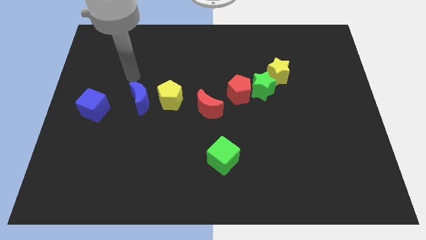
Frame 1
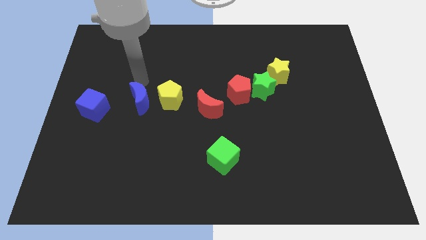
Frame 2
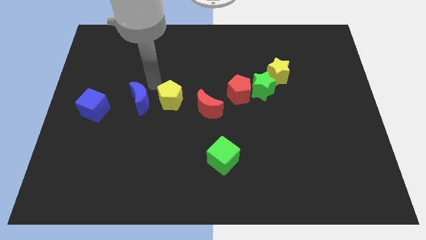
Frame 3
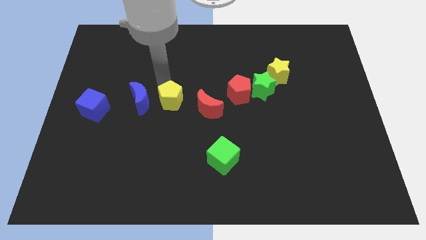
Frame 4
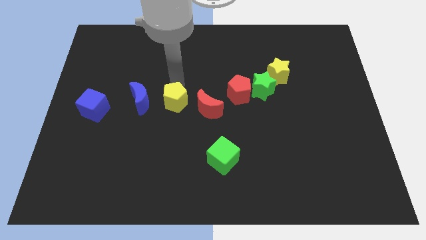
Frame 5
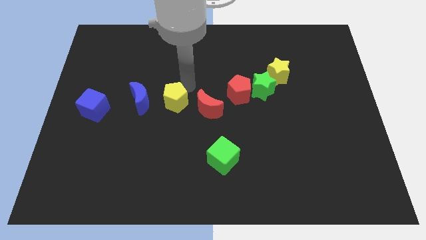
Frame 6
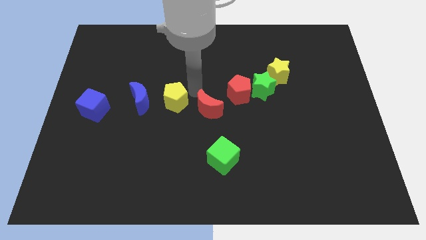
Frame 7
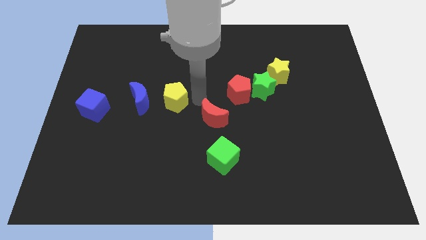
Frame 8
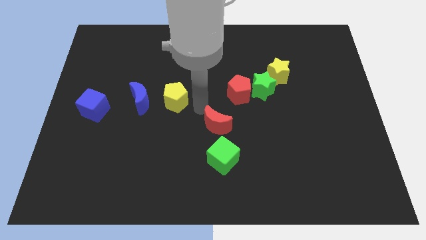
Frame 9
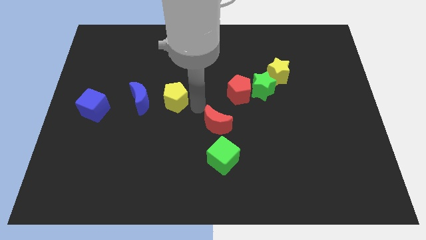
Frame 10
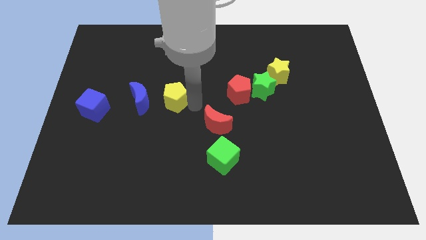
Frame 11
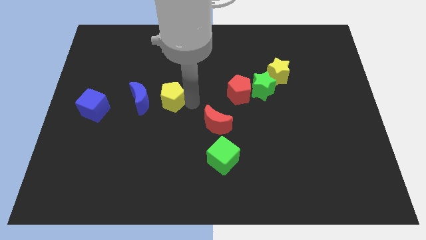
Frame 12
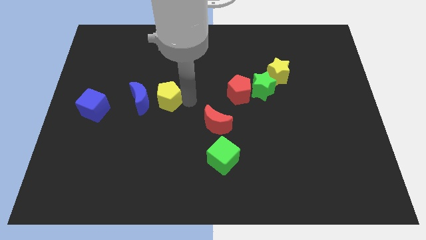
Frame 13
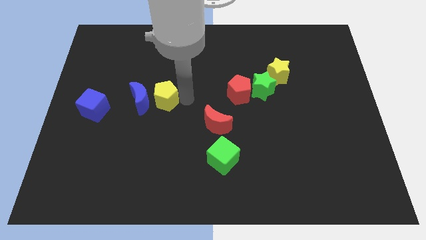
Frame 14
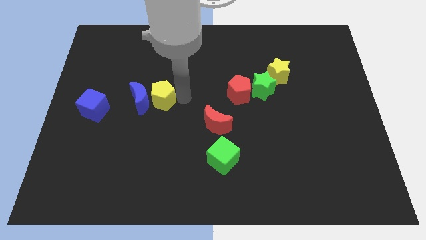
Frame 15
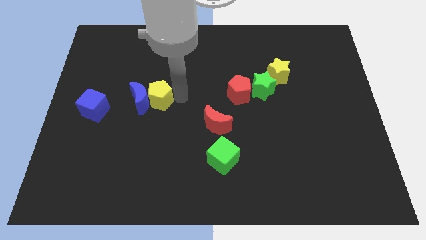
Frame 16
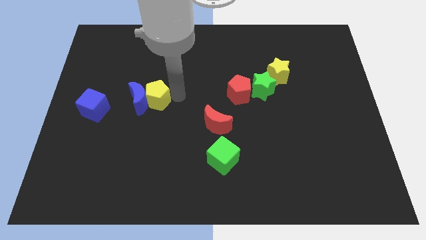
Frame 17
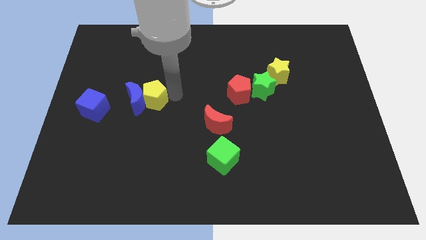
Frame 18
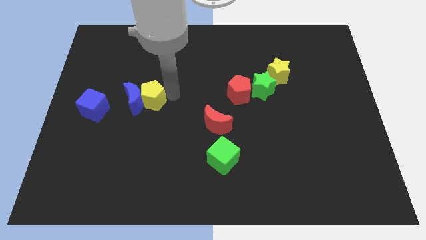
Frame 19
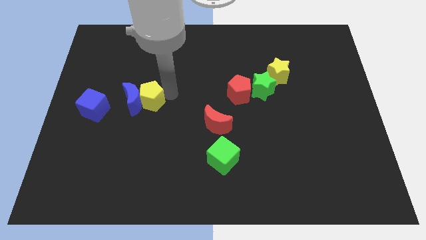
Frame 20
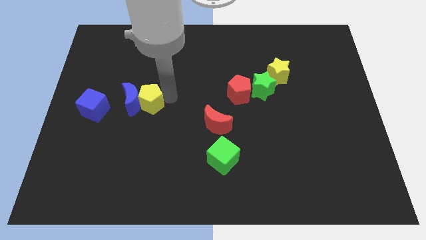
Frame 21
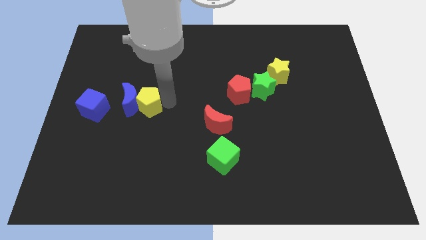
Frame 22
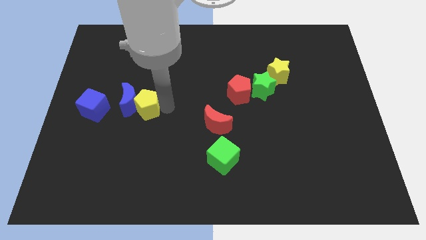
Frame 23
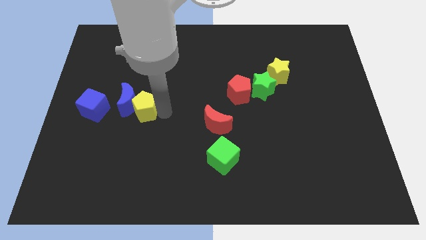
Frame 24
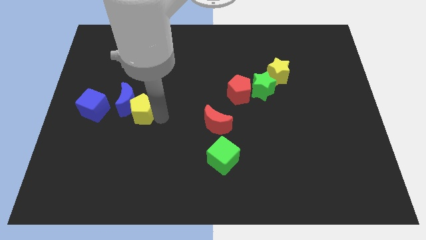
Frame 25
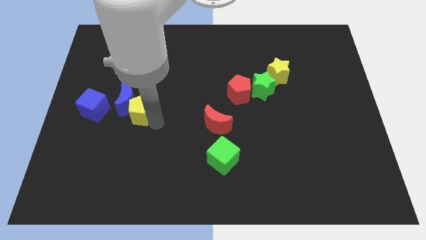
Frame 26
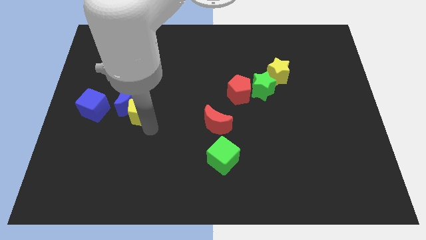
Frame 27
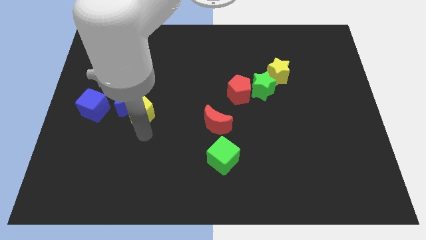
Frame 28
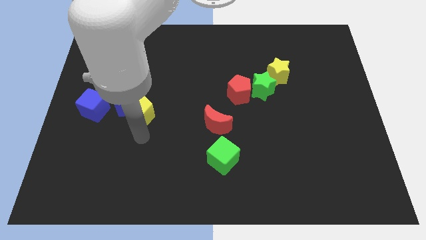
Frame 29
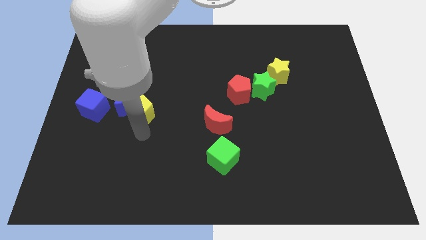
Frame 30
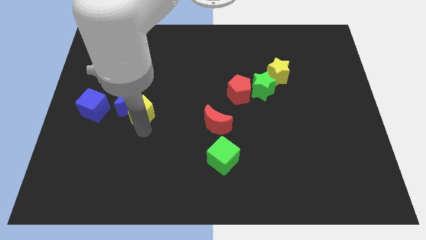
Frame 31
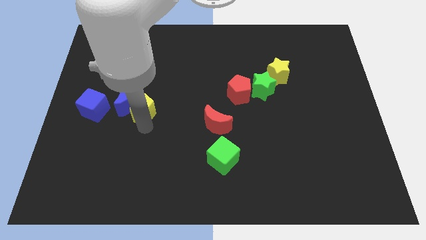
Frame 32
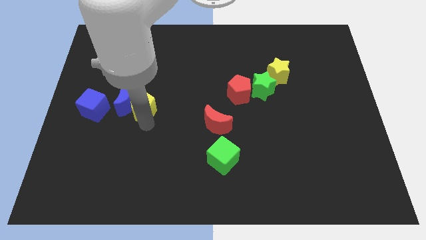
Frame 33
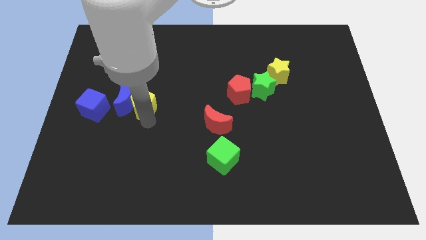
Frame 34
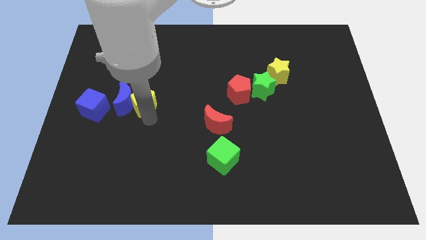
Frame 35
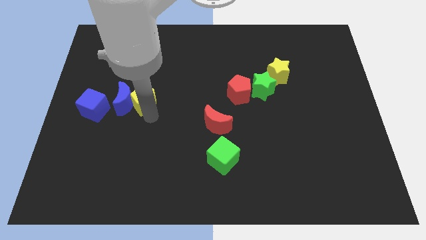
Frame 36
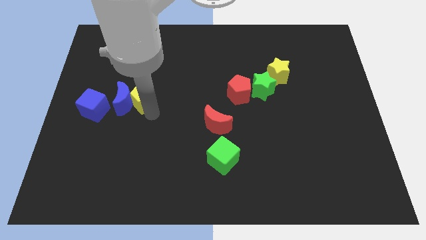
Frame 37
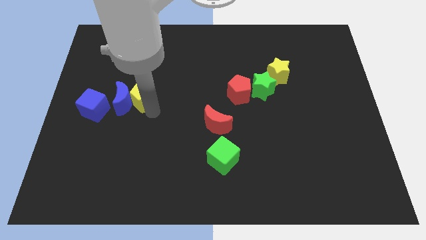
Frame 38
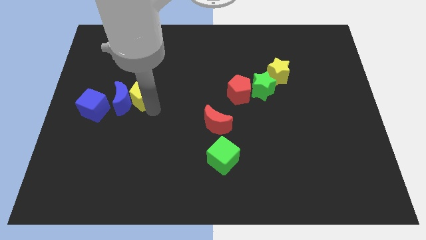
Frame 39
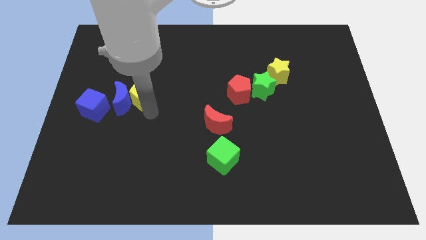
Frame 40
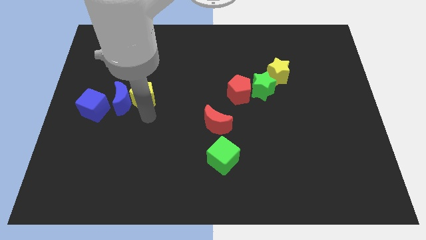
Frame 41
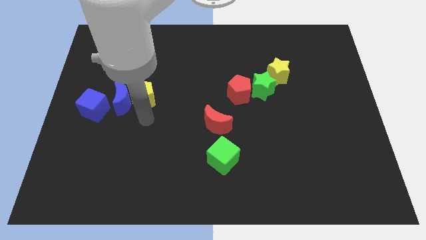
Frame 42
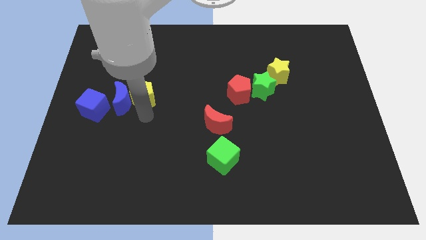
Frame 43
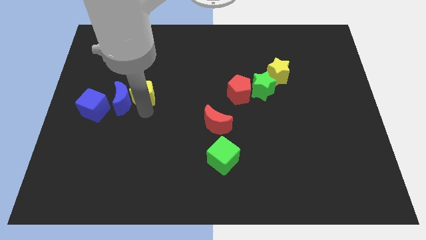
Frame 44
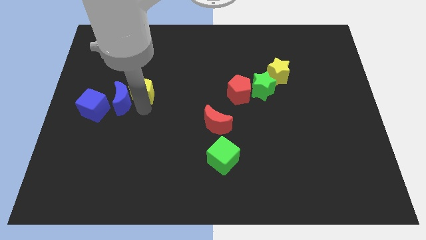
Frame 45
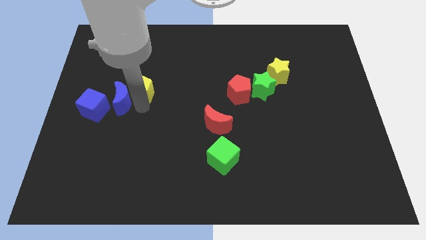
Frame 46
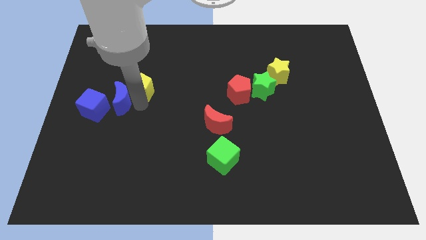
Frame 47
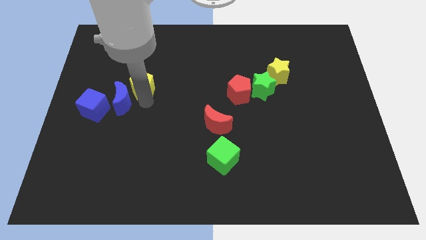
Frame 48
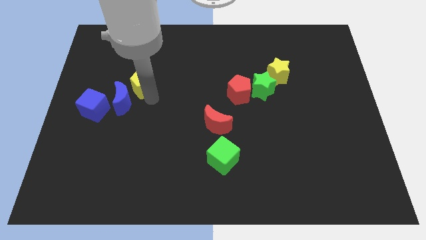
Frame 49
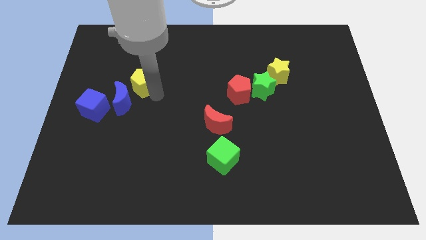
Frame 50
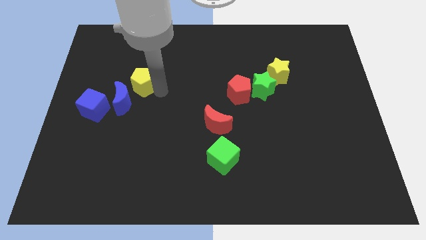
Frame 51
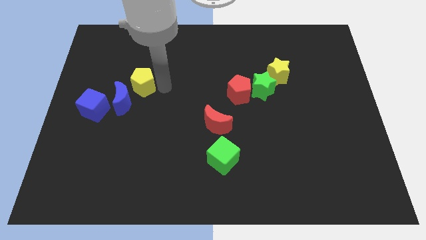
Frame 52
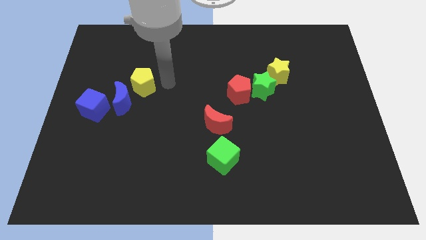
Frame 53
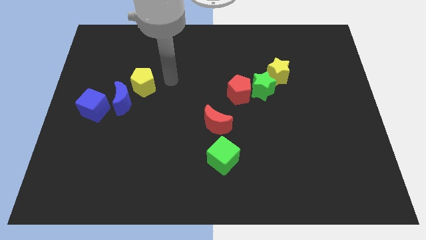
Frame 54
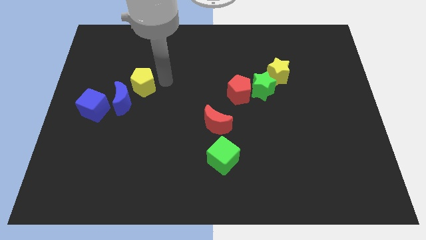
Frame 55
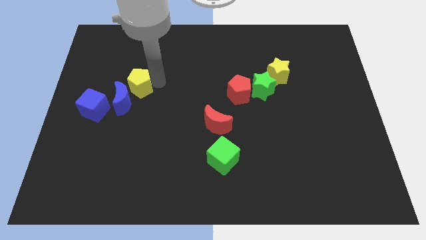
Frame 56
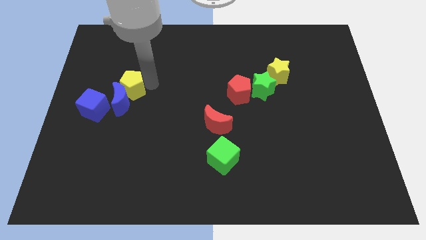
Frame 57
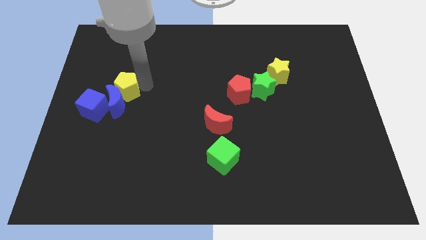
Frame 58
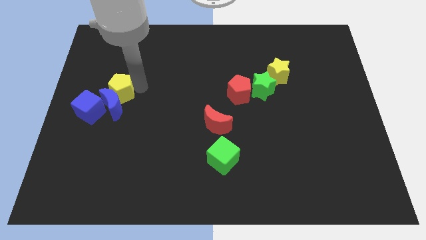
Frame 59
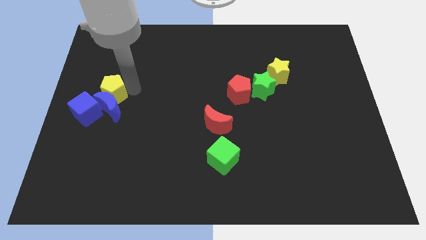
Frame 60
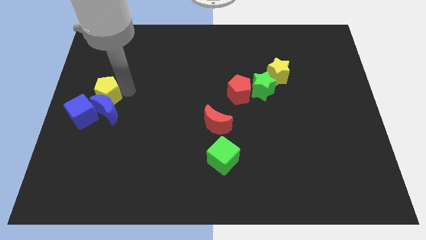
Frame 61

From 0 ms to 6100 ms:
slide the yellow pentagon to the center left
